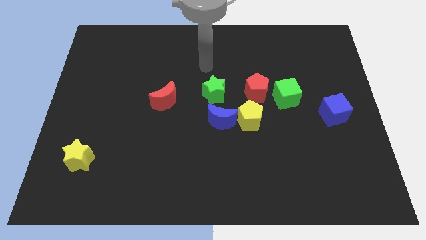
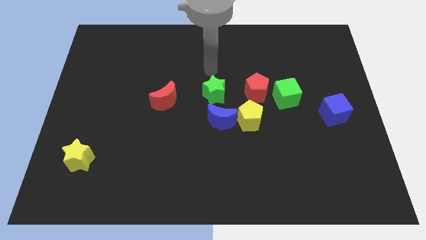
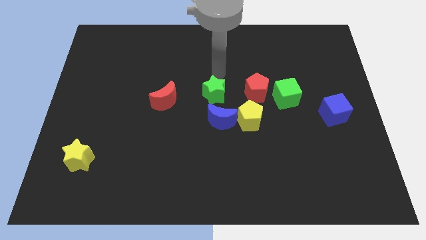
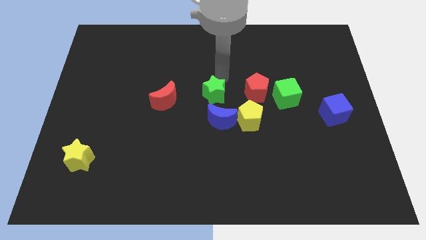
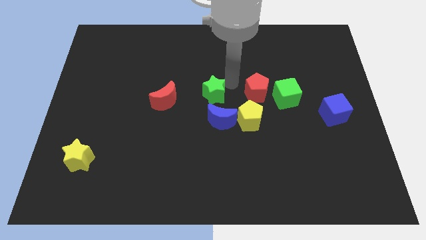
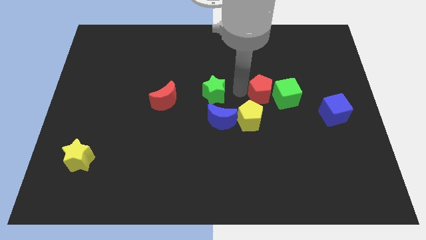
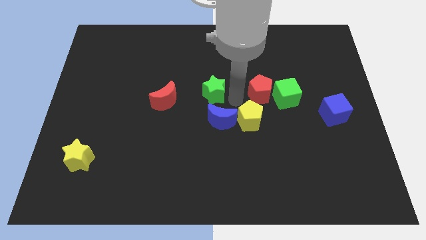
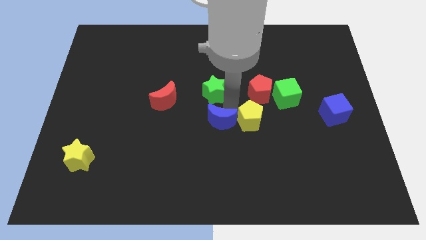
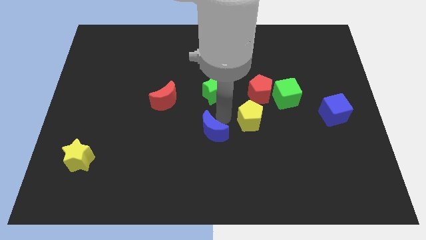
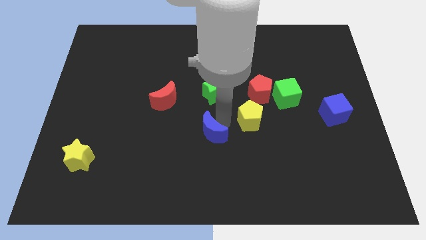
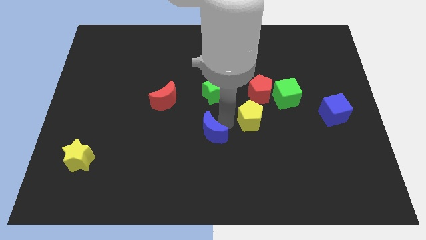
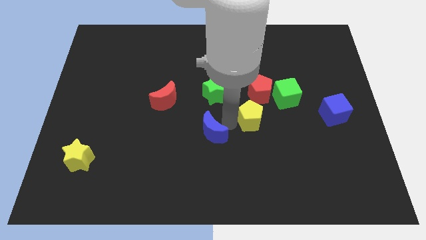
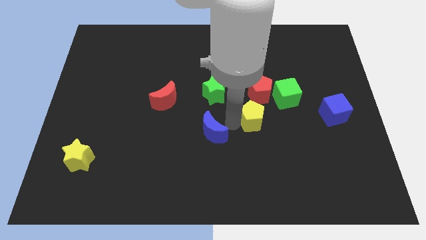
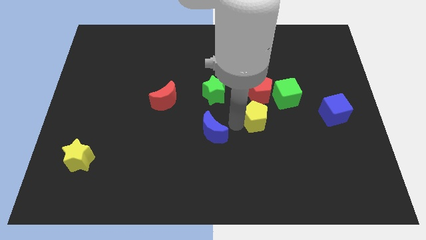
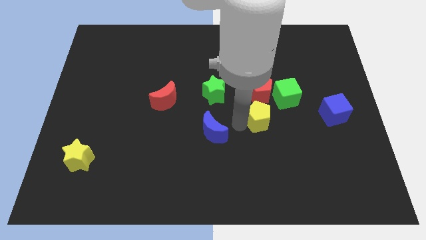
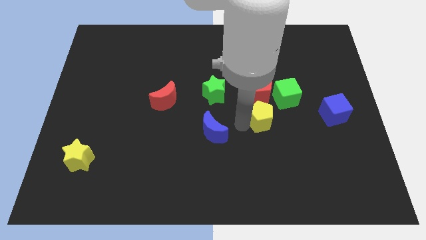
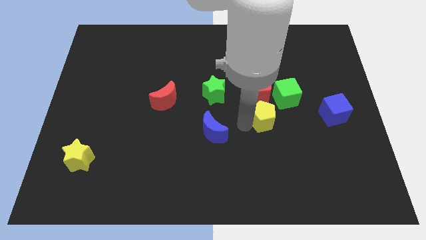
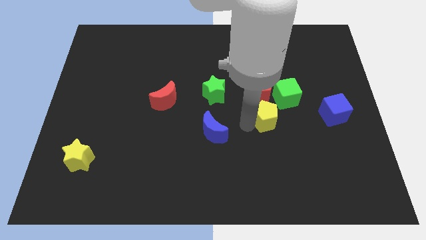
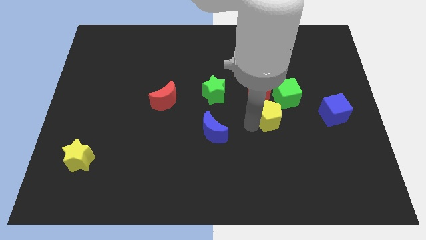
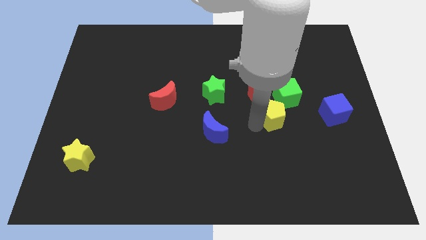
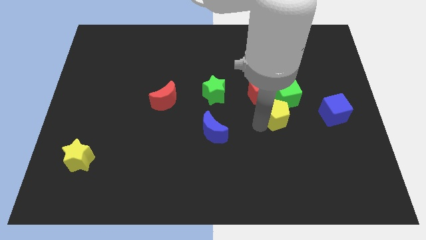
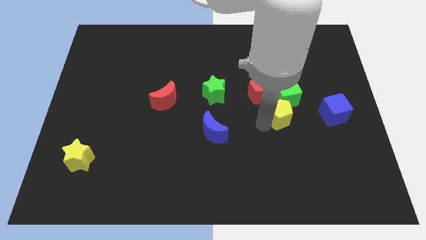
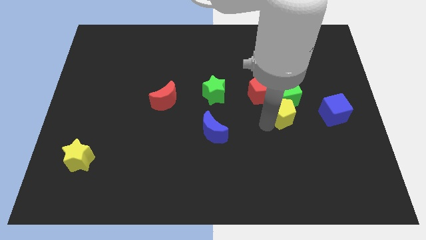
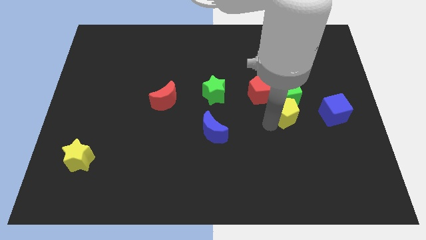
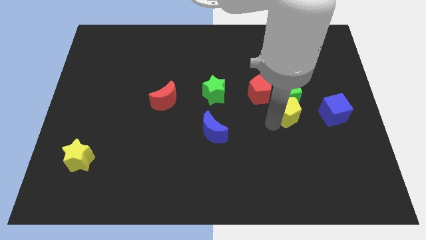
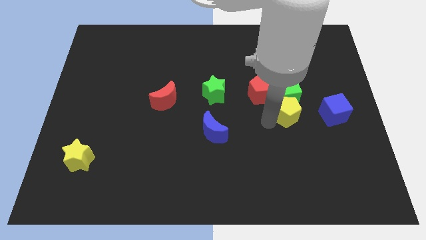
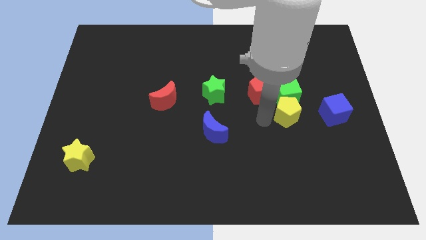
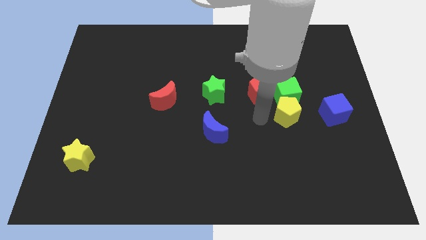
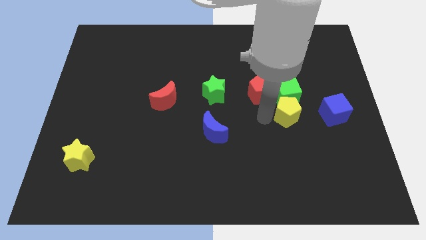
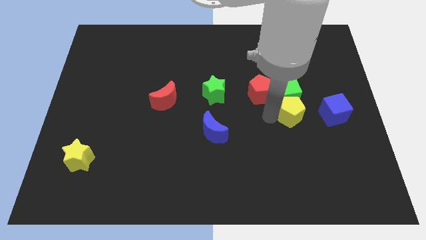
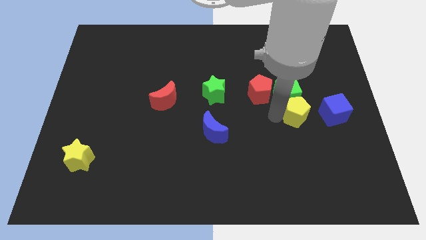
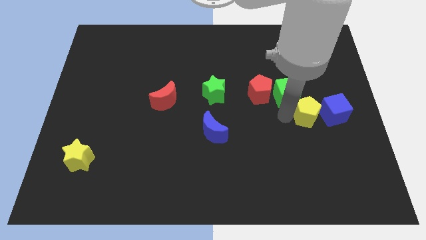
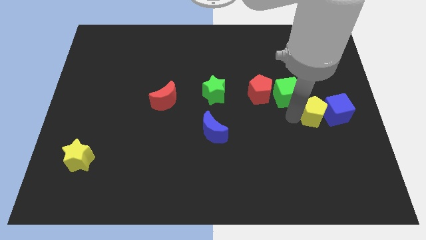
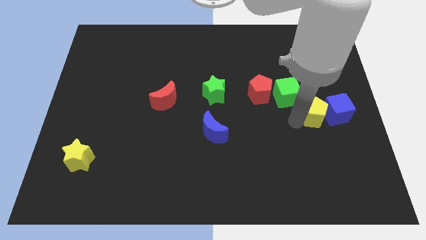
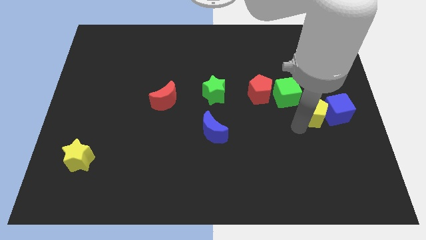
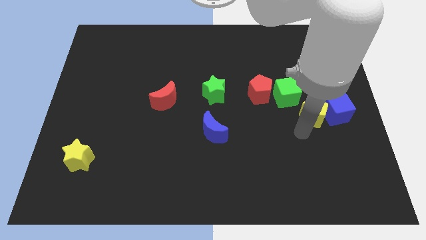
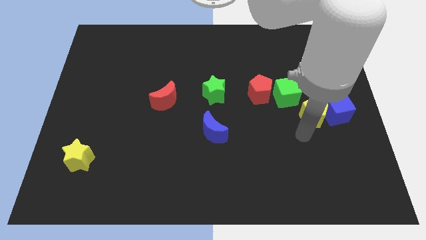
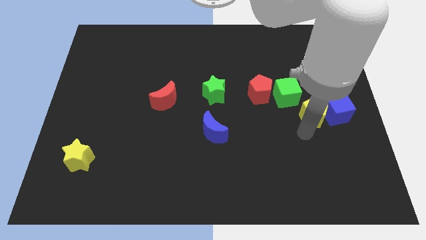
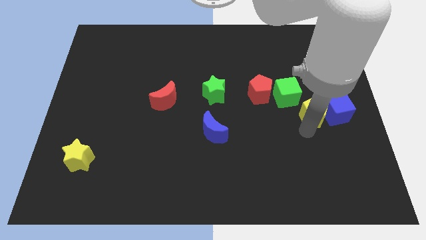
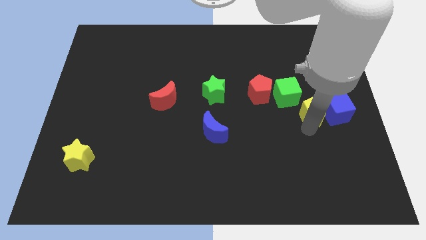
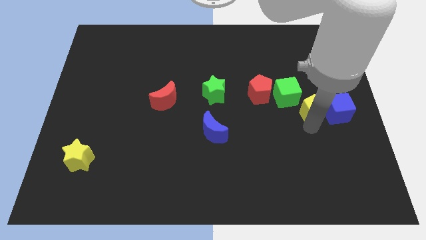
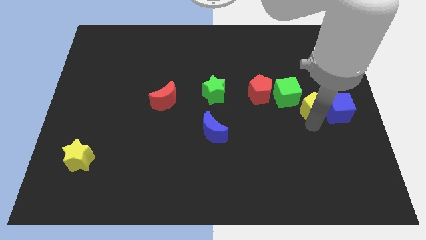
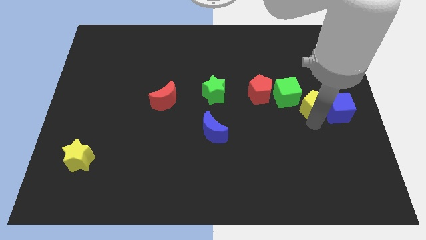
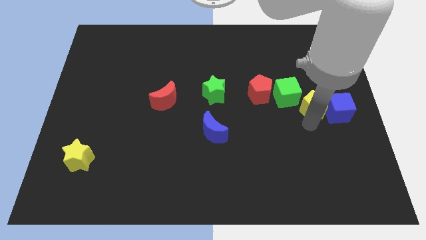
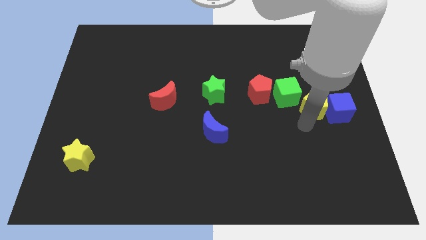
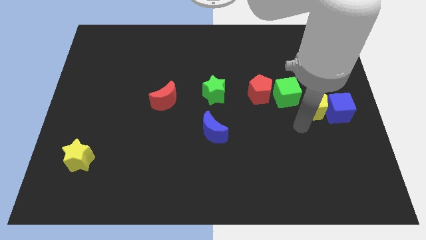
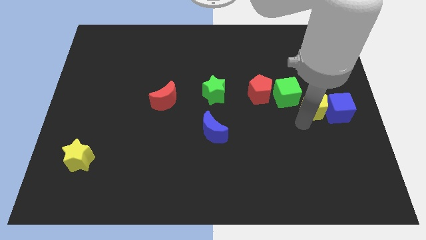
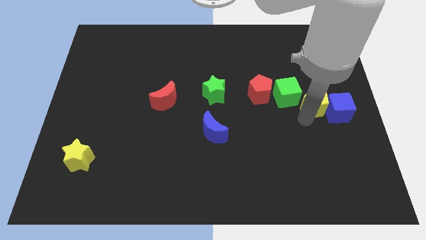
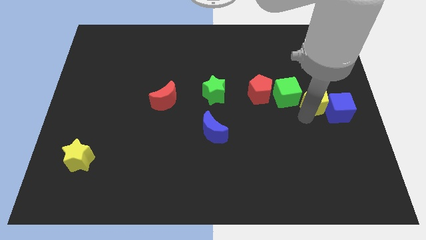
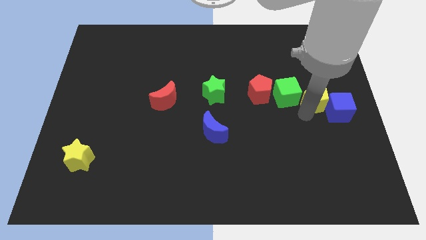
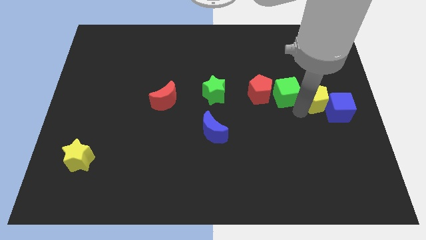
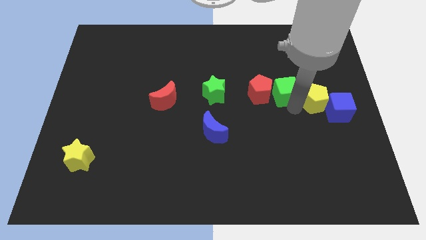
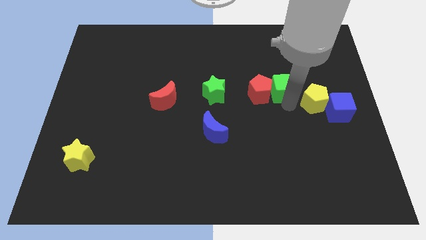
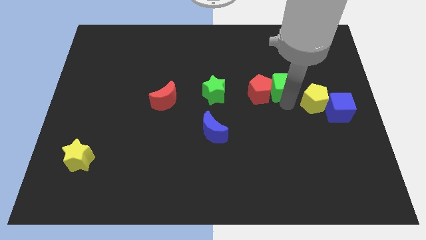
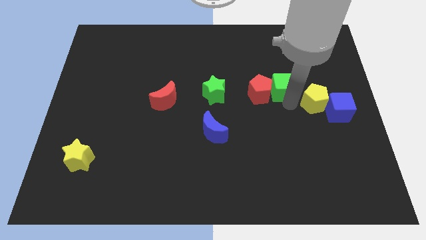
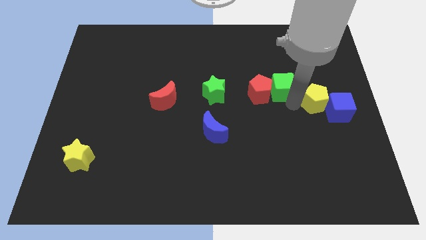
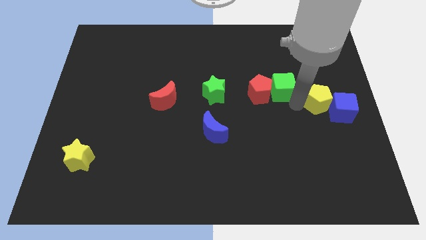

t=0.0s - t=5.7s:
push the yellow pentagon to the right side of the board

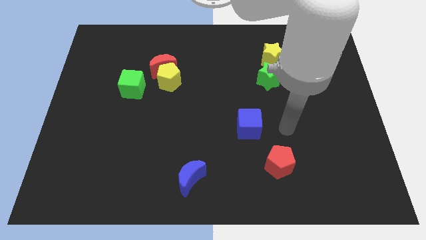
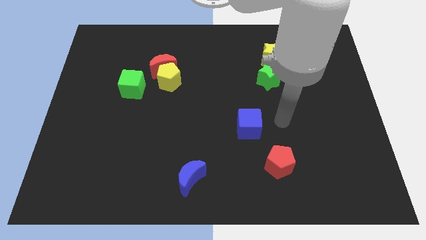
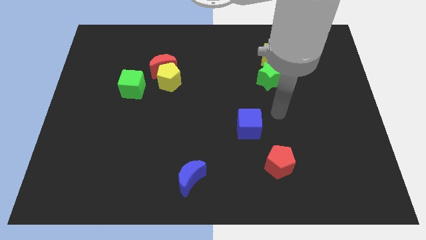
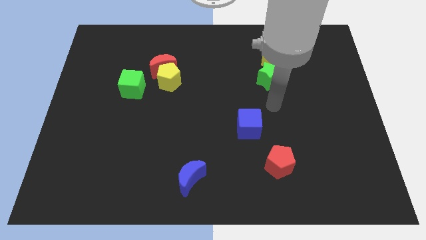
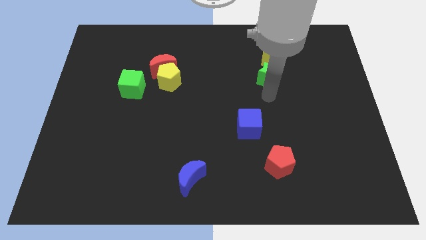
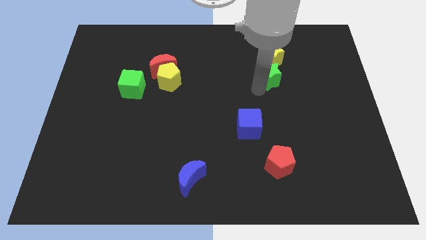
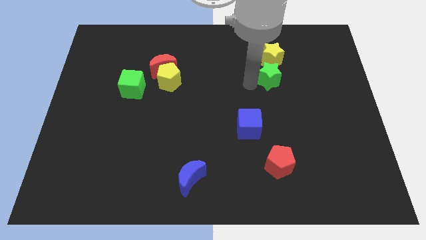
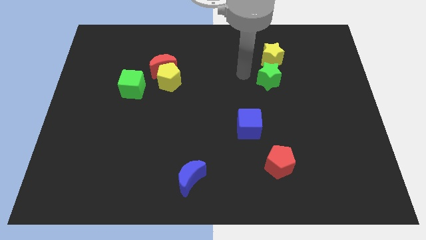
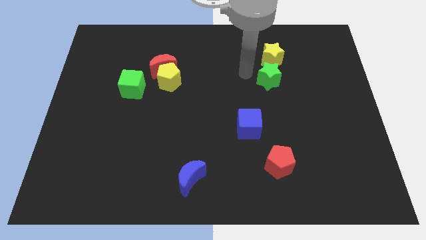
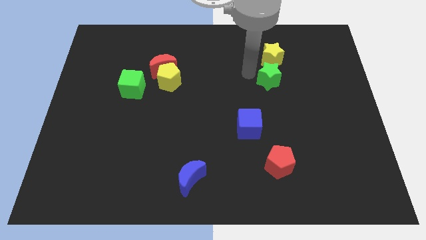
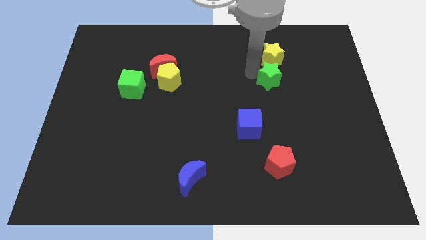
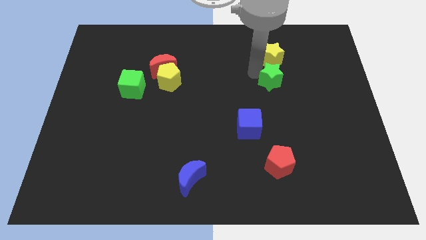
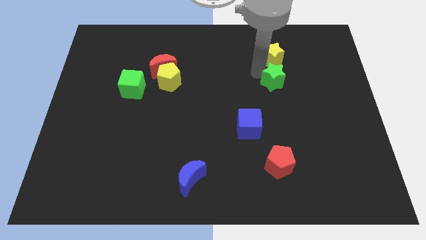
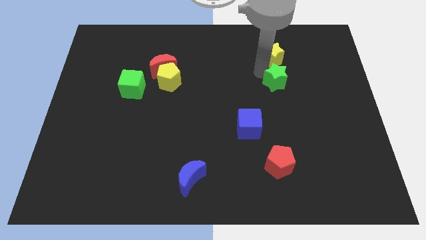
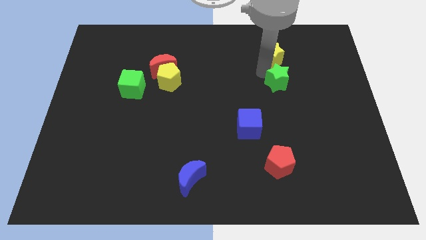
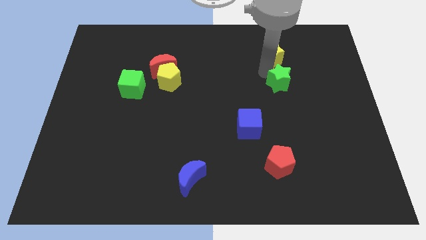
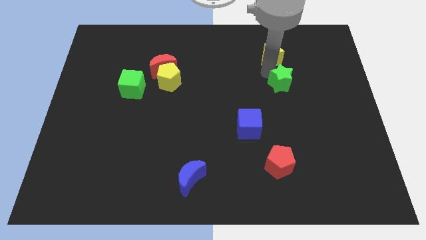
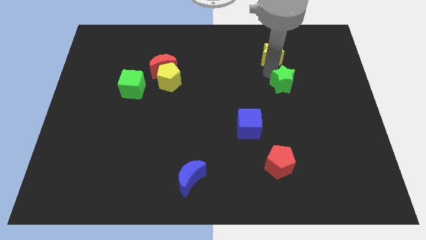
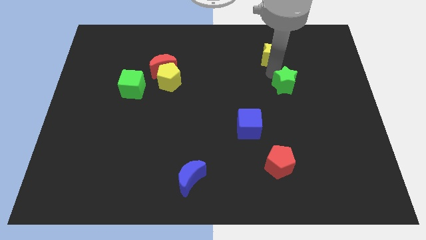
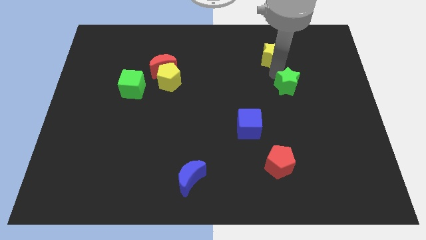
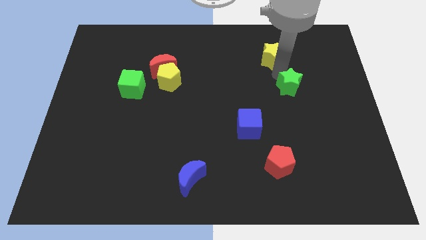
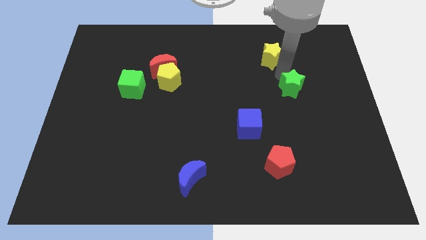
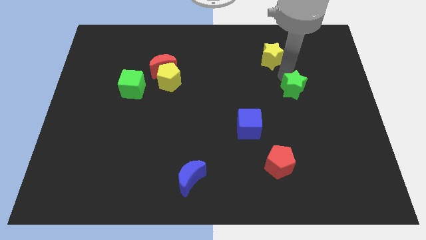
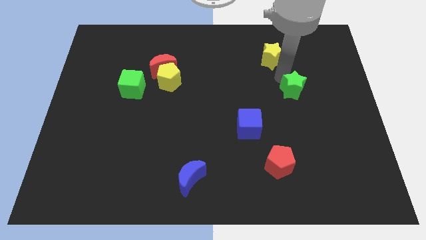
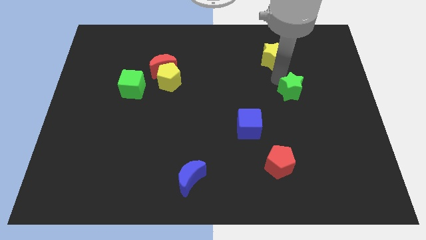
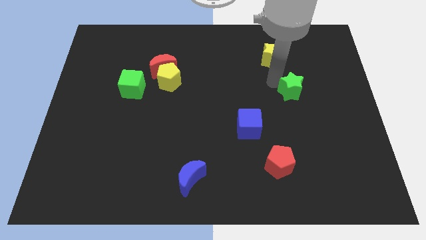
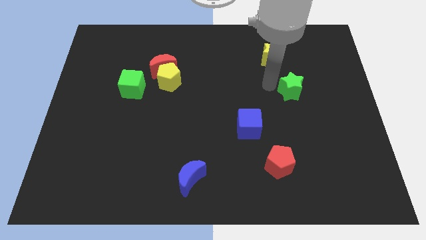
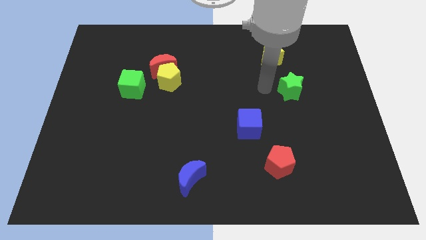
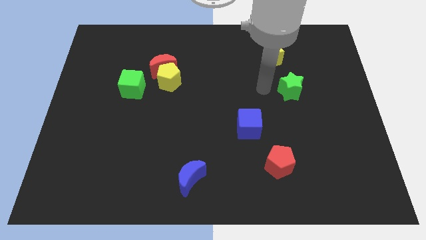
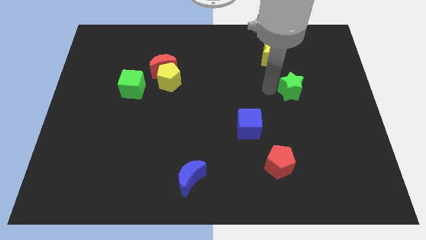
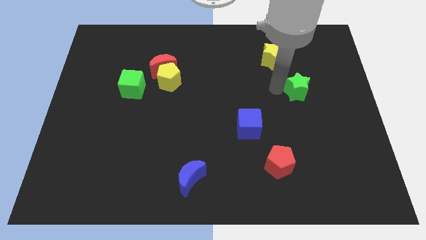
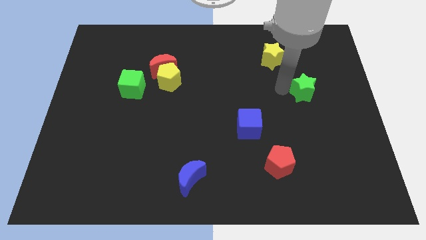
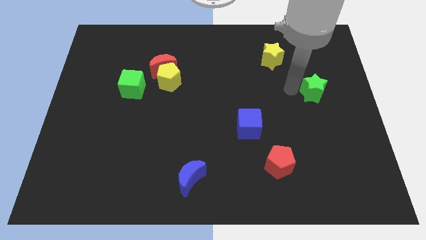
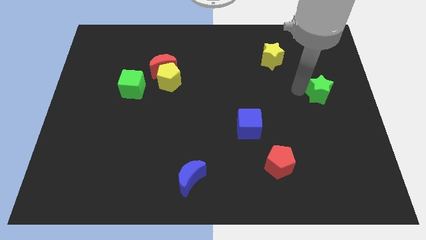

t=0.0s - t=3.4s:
push the green star to the center right
